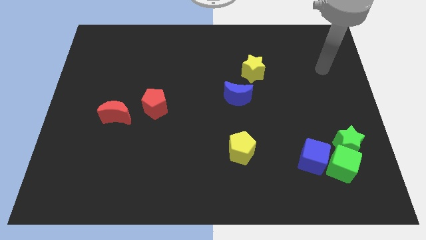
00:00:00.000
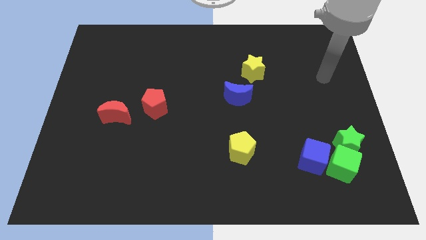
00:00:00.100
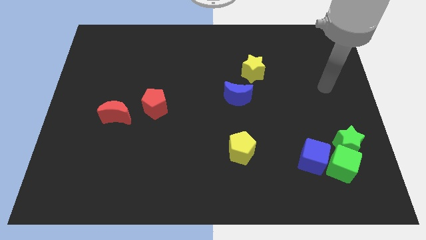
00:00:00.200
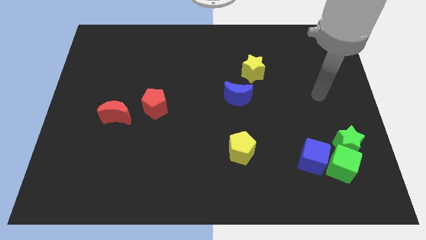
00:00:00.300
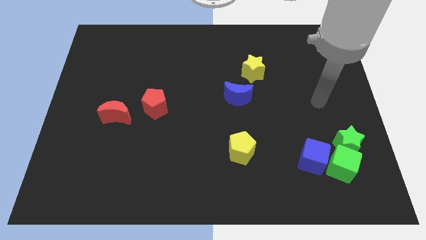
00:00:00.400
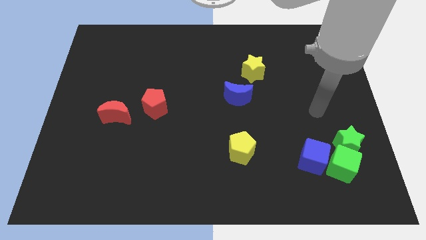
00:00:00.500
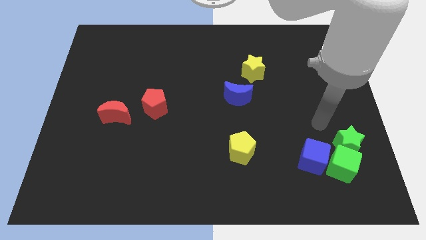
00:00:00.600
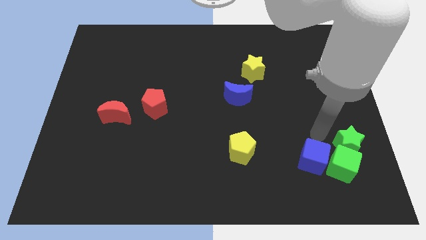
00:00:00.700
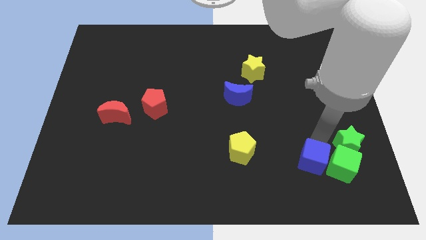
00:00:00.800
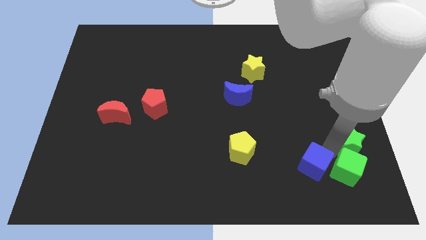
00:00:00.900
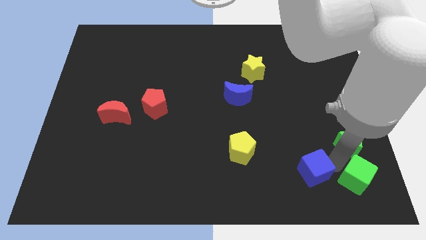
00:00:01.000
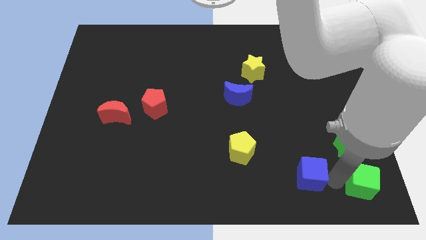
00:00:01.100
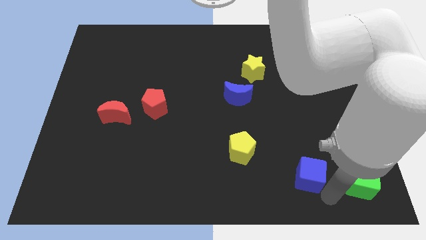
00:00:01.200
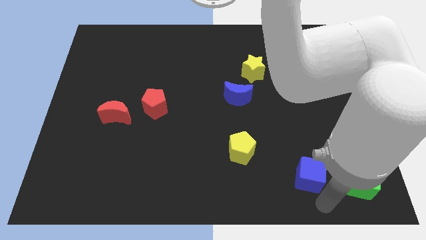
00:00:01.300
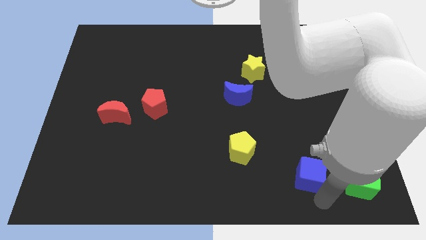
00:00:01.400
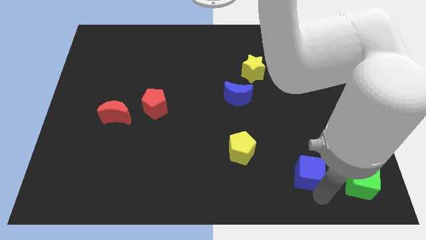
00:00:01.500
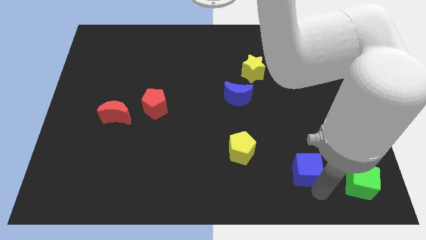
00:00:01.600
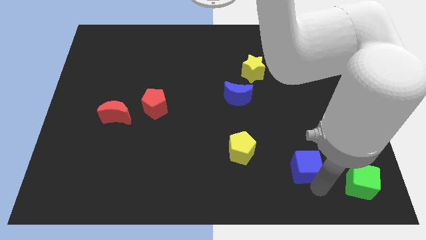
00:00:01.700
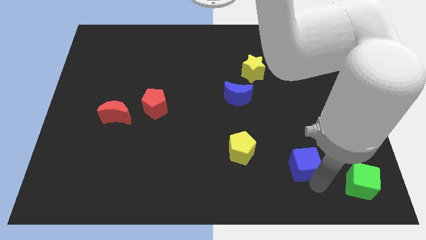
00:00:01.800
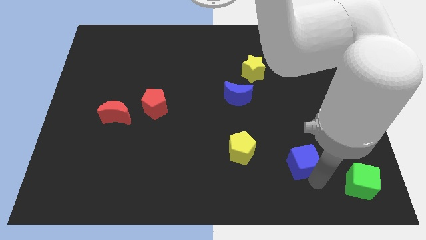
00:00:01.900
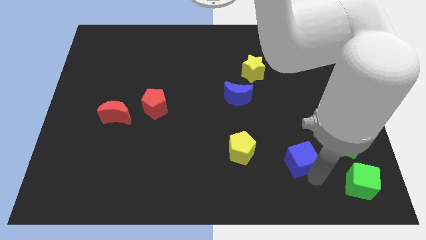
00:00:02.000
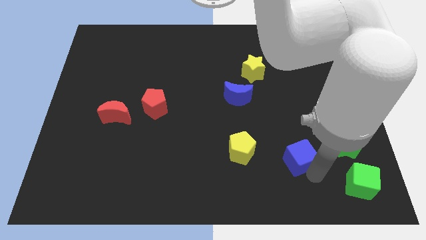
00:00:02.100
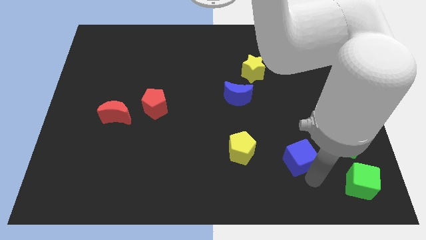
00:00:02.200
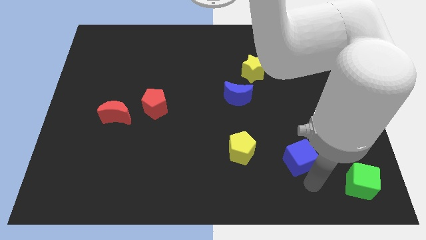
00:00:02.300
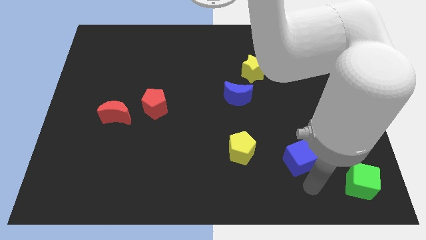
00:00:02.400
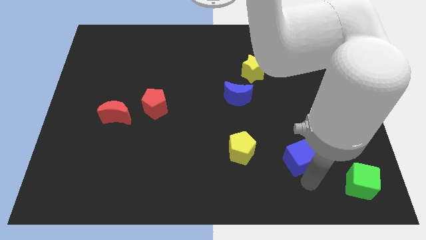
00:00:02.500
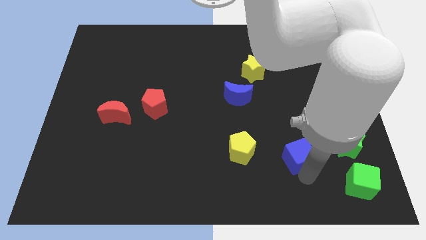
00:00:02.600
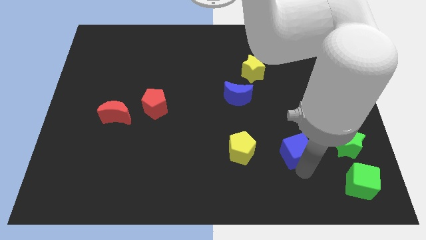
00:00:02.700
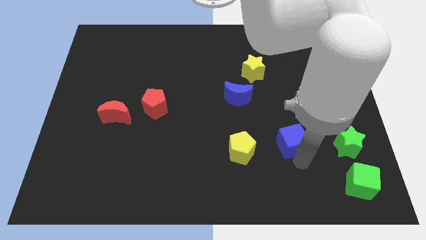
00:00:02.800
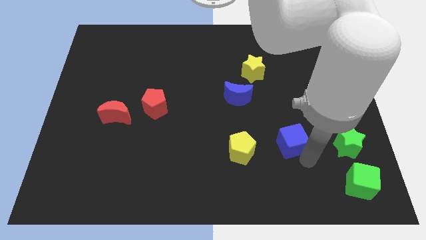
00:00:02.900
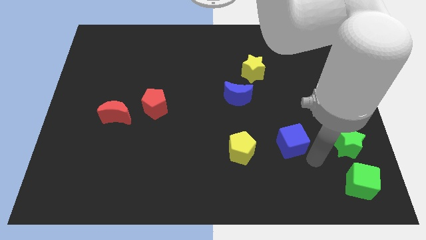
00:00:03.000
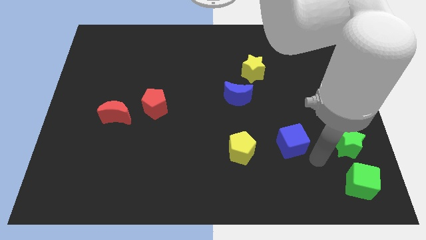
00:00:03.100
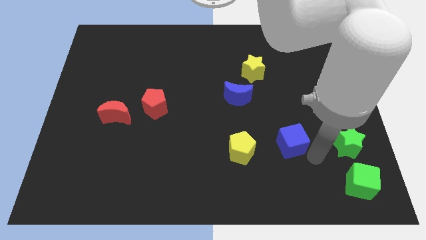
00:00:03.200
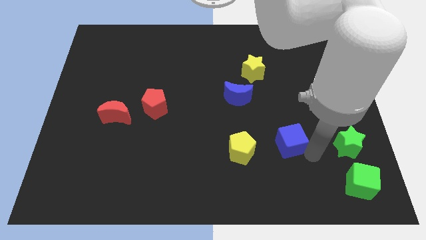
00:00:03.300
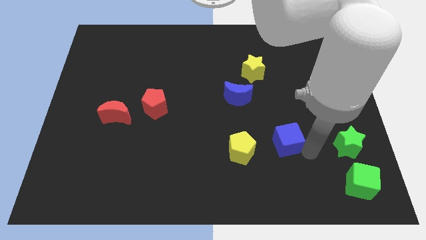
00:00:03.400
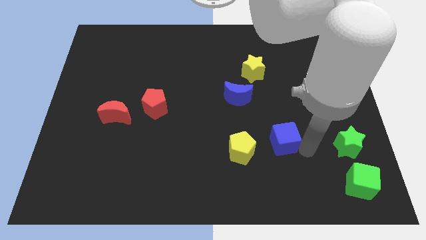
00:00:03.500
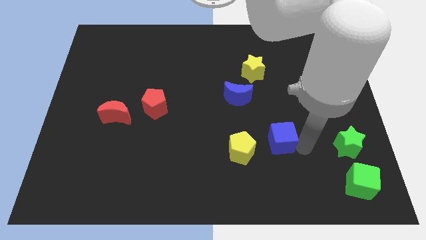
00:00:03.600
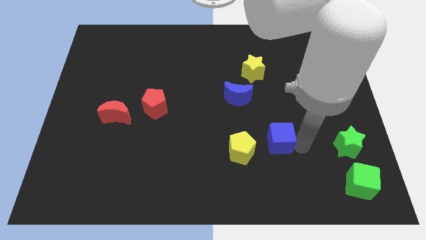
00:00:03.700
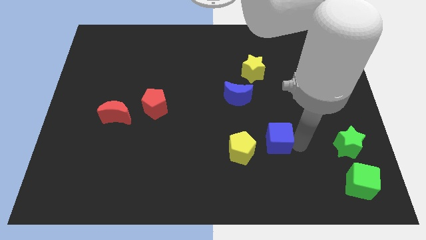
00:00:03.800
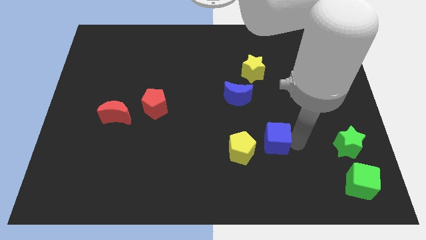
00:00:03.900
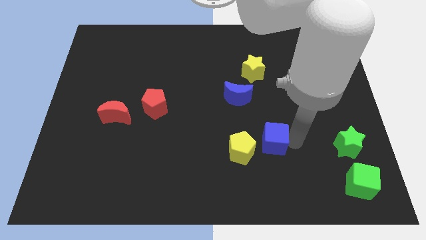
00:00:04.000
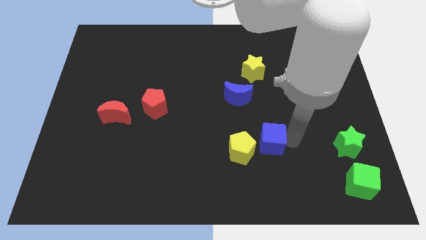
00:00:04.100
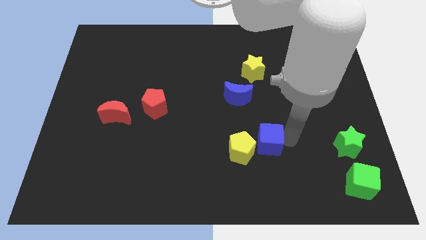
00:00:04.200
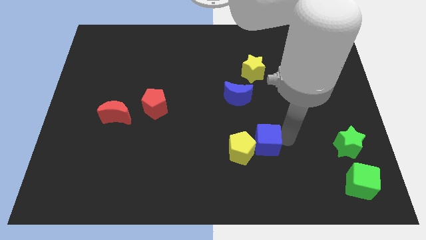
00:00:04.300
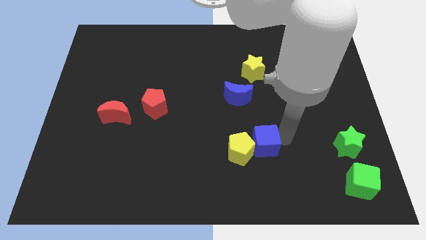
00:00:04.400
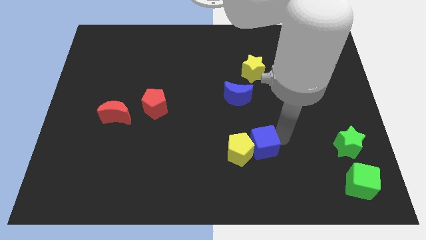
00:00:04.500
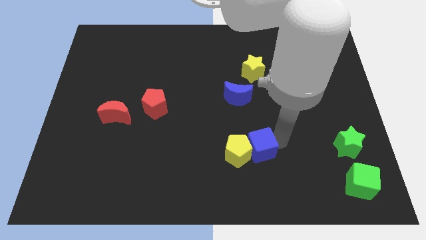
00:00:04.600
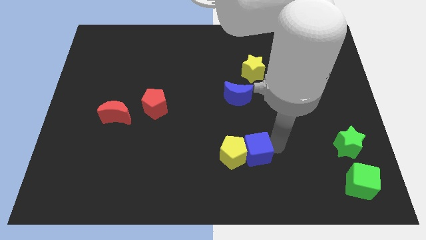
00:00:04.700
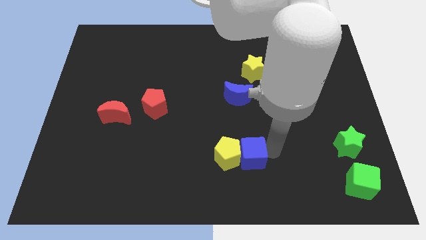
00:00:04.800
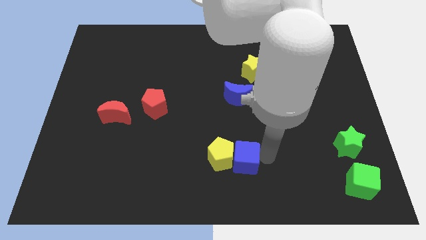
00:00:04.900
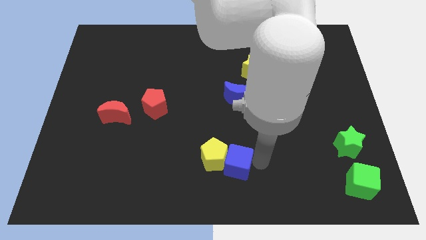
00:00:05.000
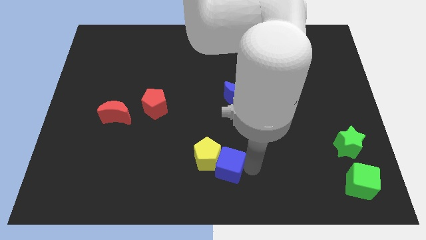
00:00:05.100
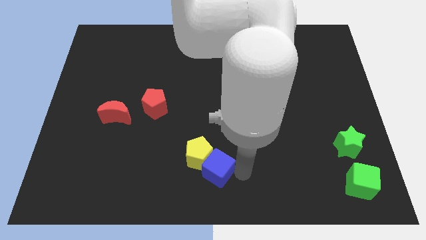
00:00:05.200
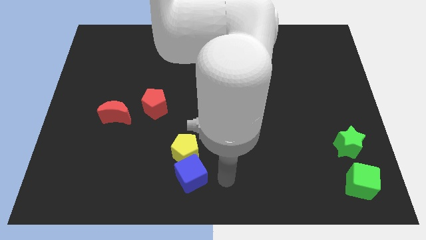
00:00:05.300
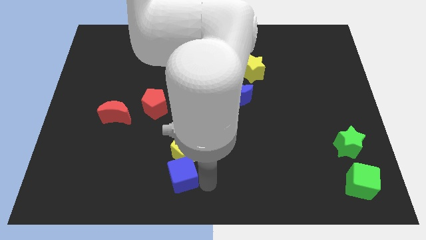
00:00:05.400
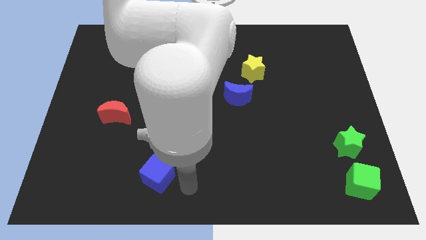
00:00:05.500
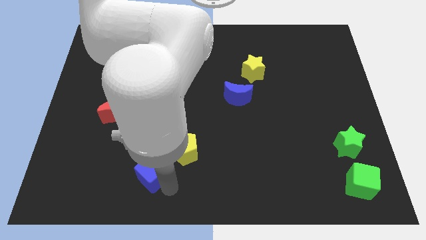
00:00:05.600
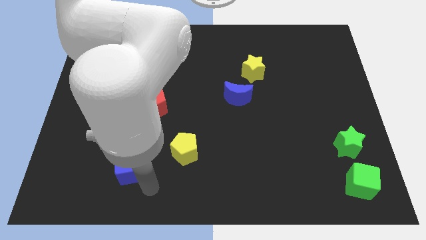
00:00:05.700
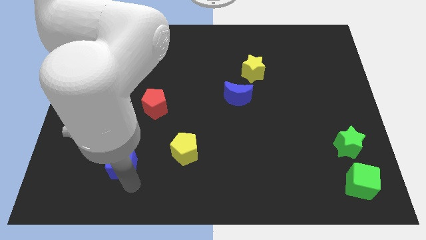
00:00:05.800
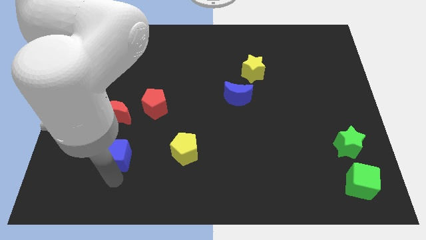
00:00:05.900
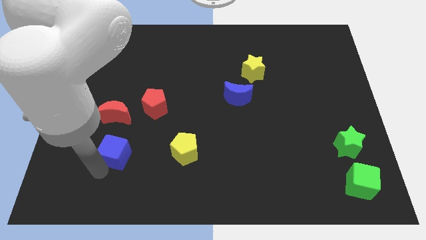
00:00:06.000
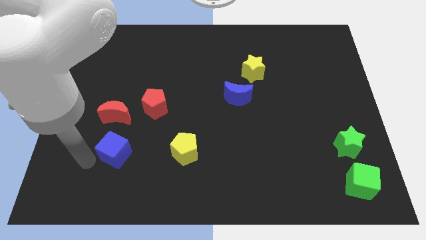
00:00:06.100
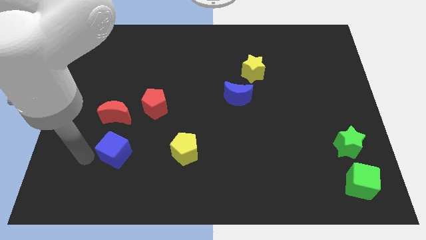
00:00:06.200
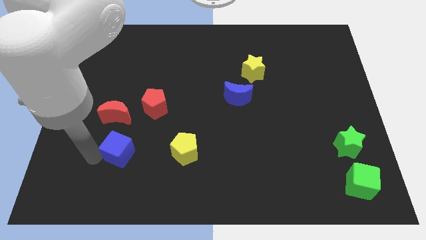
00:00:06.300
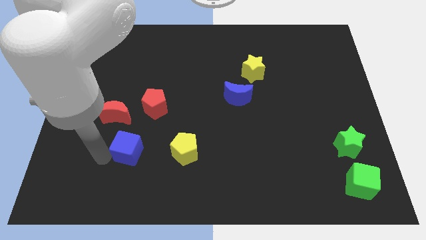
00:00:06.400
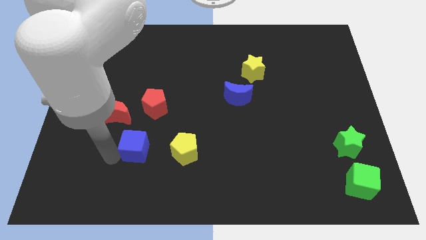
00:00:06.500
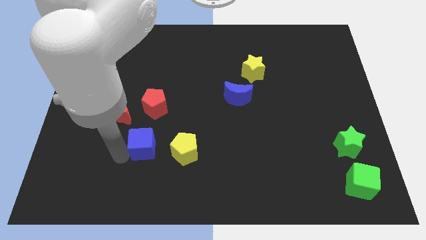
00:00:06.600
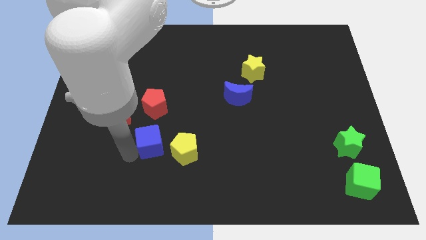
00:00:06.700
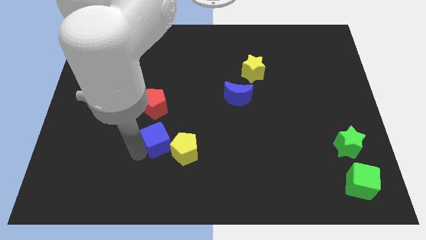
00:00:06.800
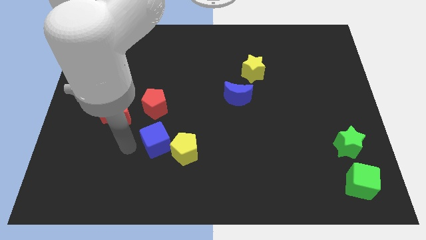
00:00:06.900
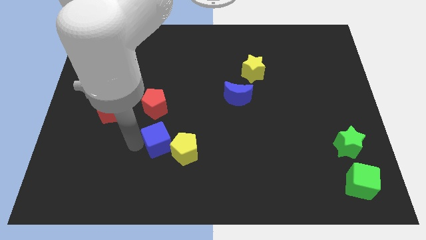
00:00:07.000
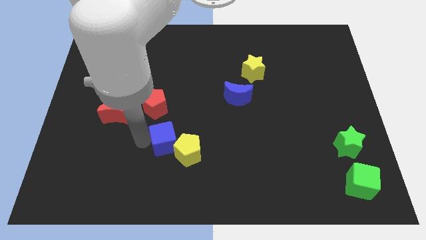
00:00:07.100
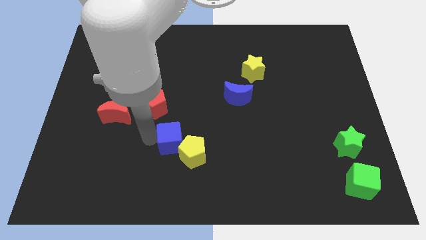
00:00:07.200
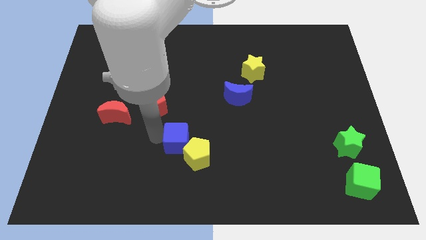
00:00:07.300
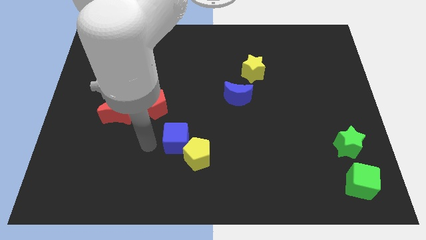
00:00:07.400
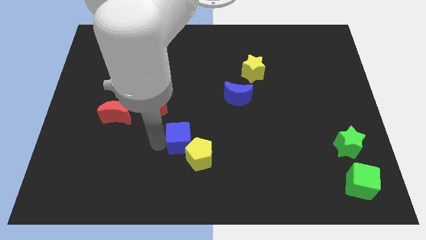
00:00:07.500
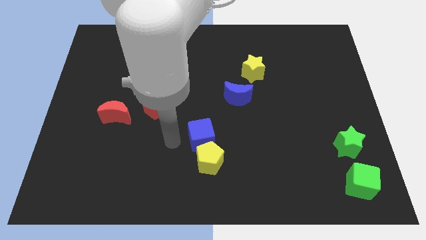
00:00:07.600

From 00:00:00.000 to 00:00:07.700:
slide the blue cube to the middle
